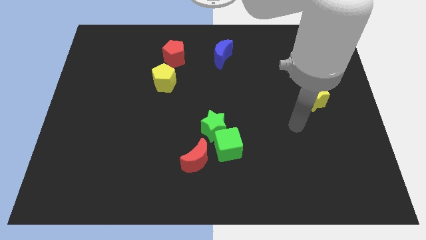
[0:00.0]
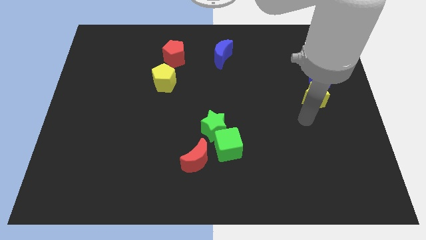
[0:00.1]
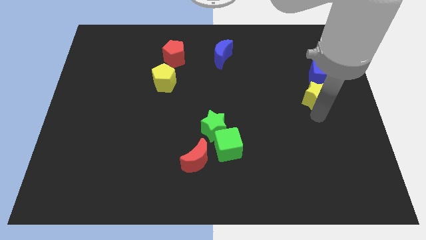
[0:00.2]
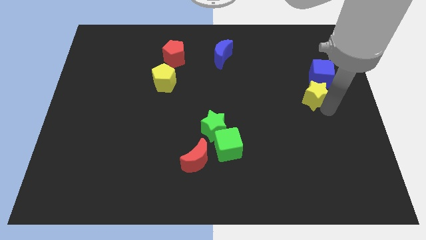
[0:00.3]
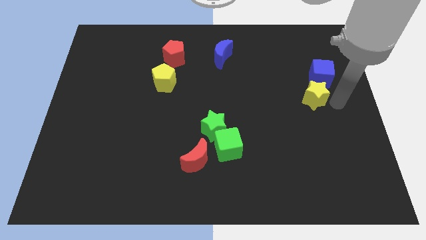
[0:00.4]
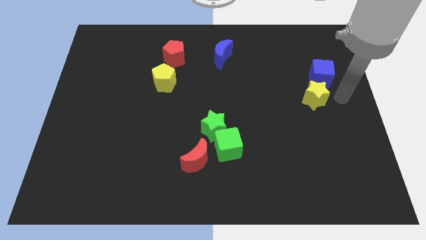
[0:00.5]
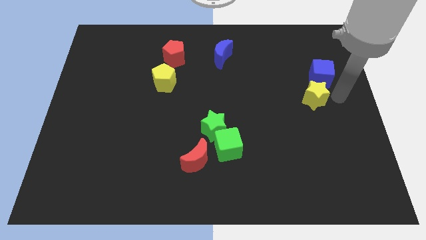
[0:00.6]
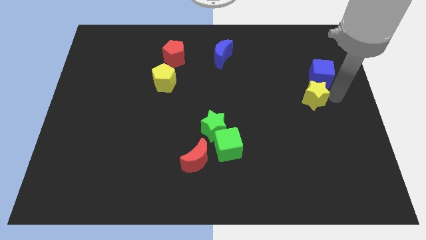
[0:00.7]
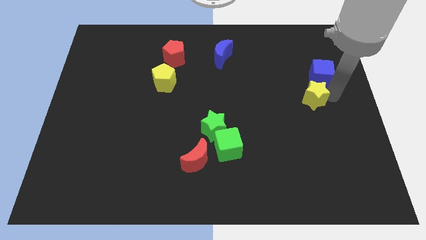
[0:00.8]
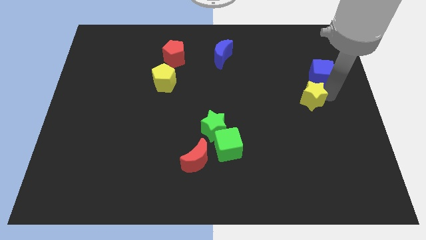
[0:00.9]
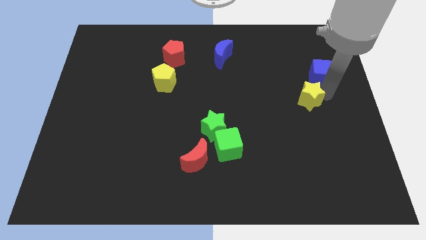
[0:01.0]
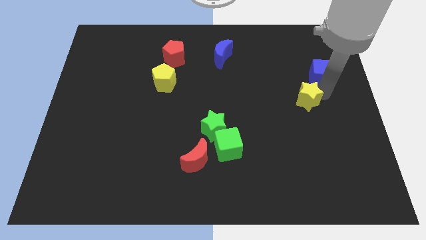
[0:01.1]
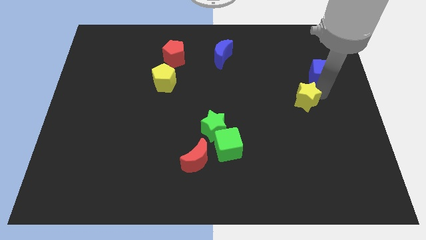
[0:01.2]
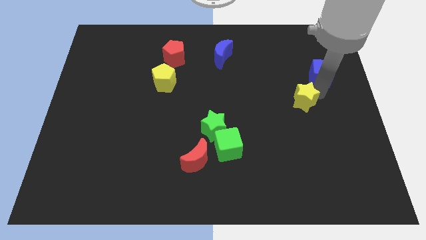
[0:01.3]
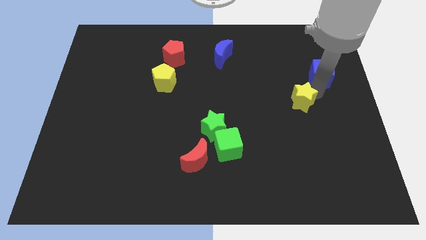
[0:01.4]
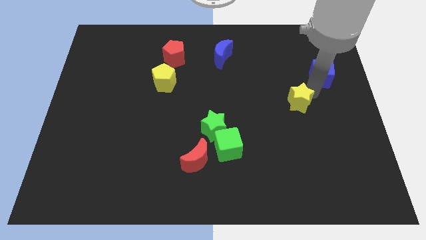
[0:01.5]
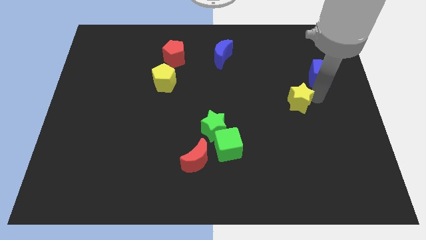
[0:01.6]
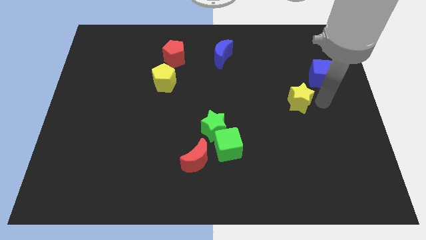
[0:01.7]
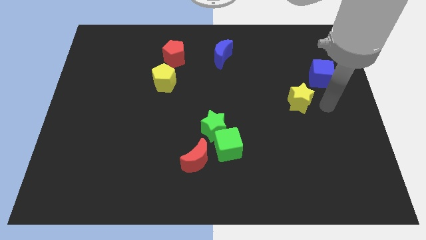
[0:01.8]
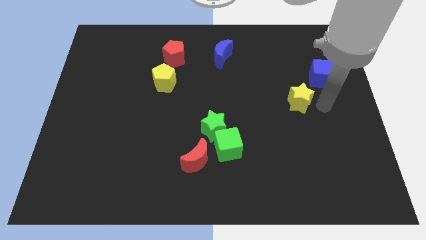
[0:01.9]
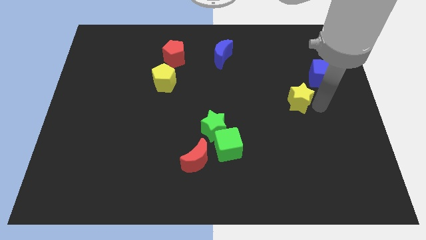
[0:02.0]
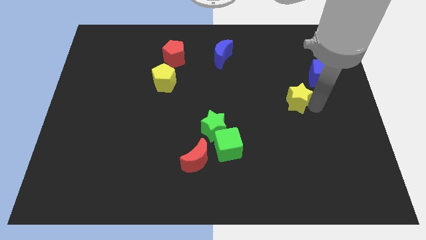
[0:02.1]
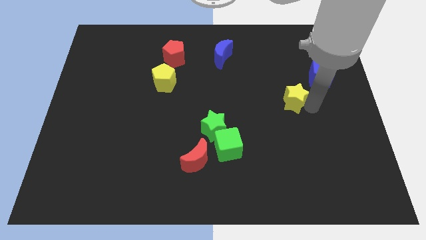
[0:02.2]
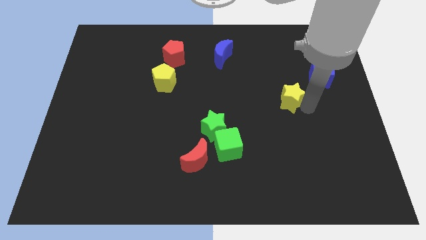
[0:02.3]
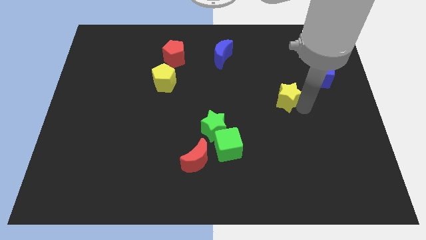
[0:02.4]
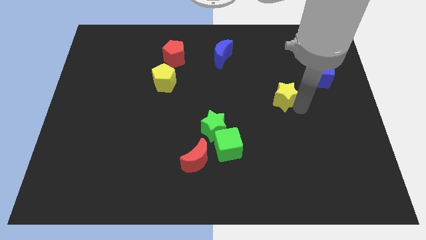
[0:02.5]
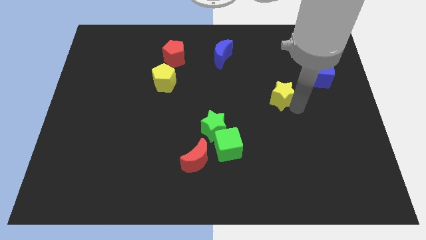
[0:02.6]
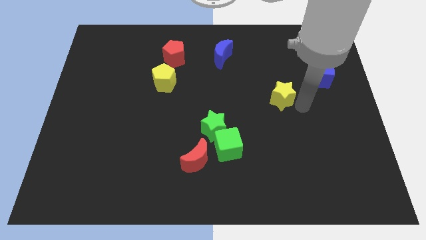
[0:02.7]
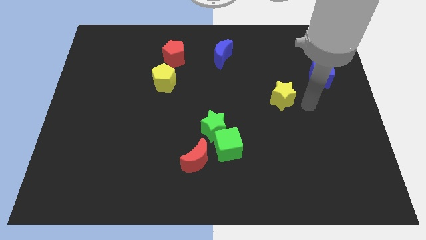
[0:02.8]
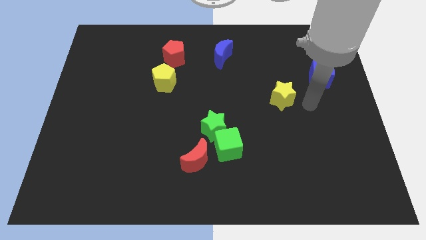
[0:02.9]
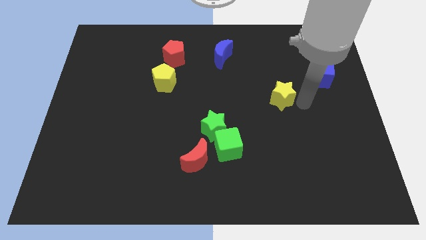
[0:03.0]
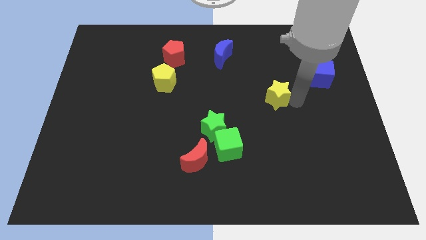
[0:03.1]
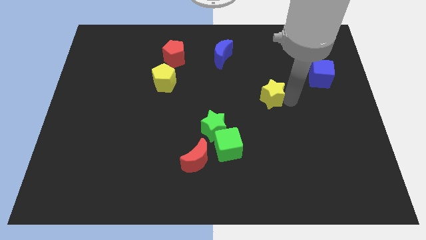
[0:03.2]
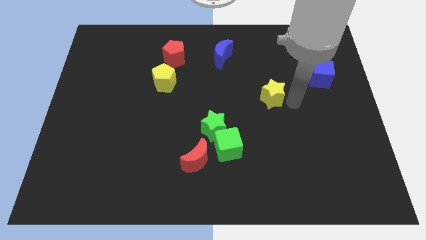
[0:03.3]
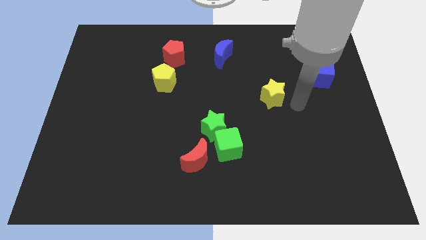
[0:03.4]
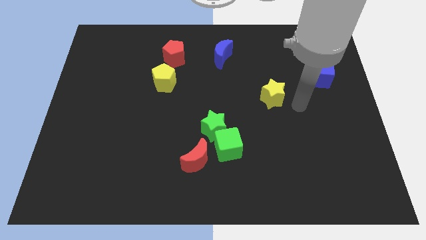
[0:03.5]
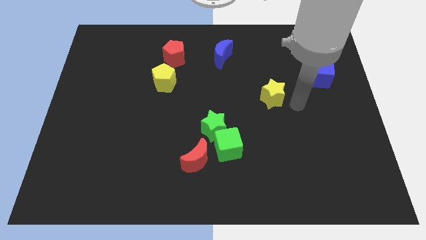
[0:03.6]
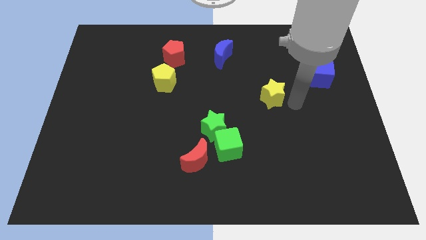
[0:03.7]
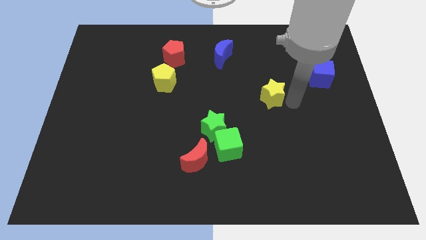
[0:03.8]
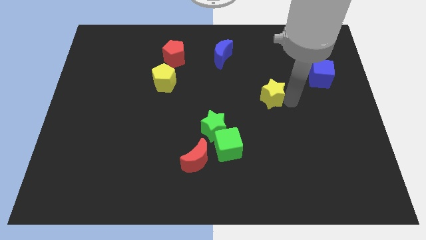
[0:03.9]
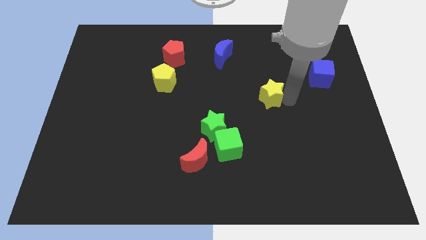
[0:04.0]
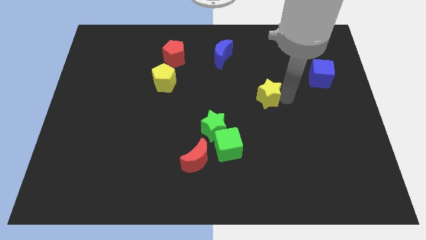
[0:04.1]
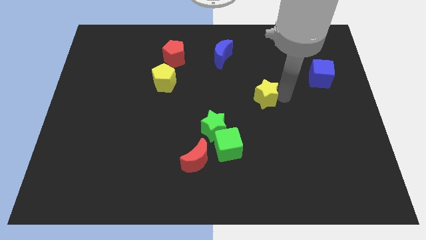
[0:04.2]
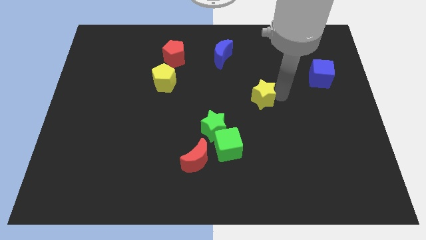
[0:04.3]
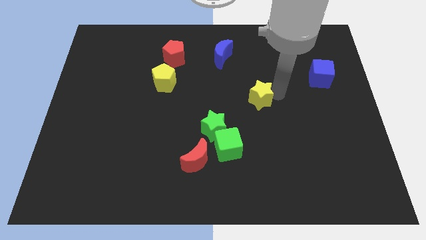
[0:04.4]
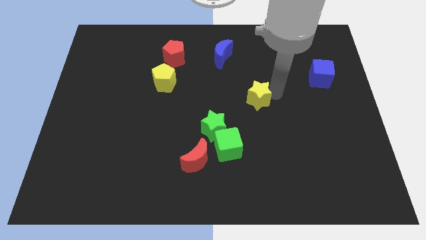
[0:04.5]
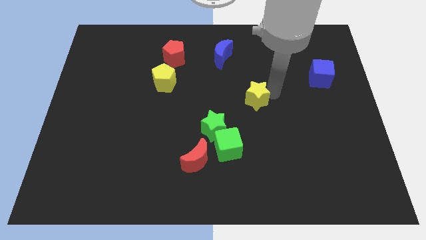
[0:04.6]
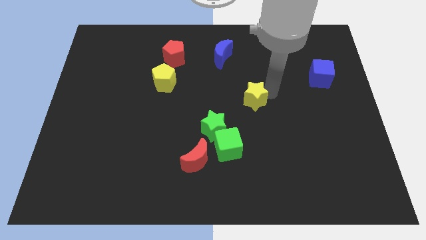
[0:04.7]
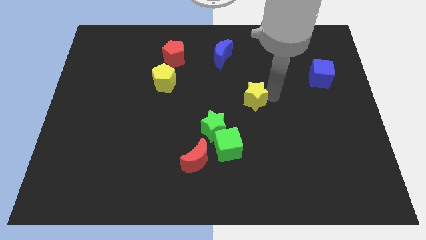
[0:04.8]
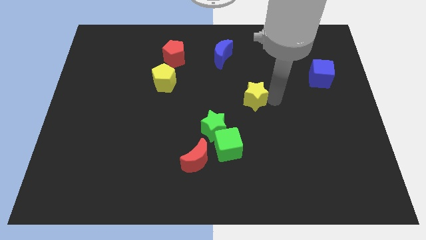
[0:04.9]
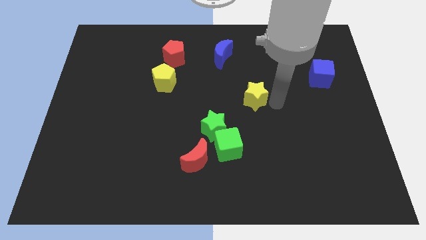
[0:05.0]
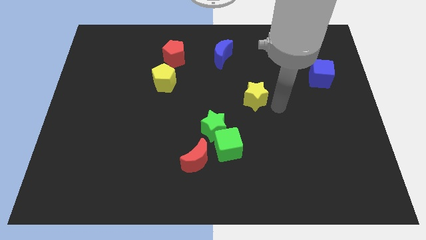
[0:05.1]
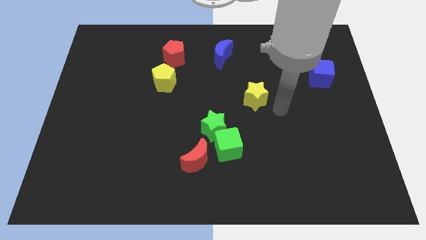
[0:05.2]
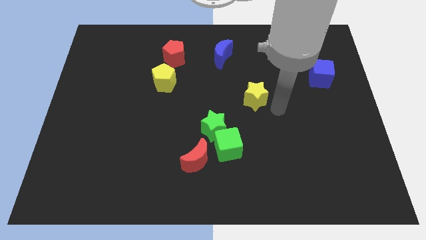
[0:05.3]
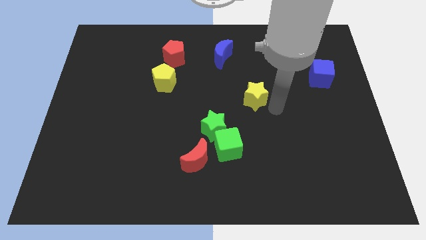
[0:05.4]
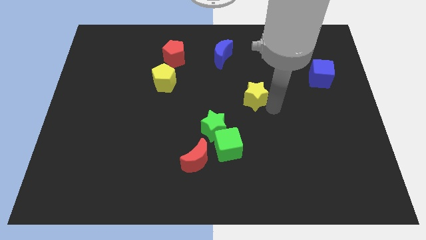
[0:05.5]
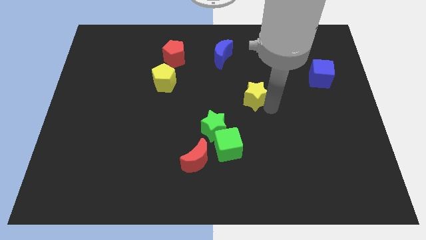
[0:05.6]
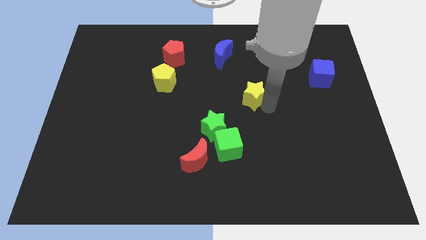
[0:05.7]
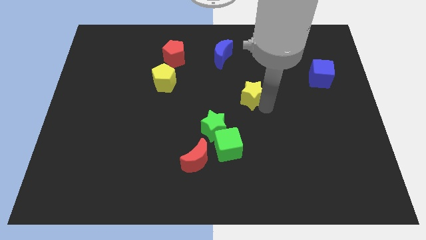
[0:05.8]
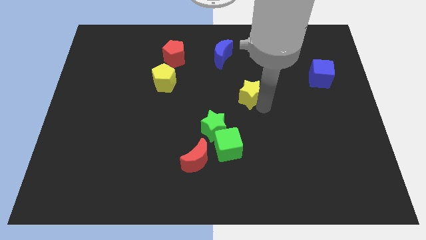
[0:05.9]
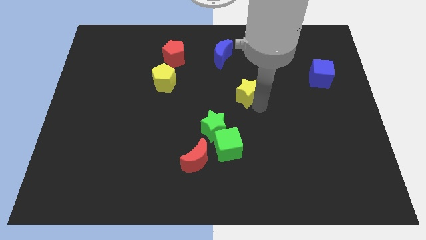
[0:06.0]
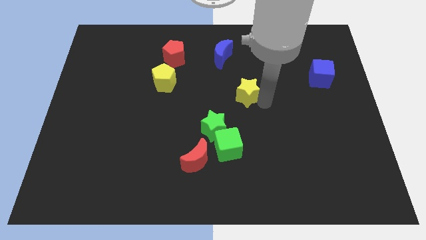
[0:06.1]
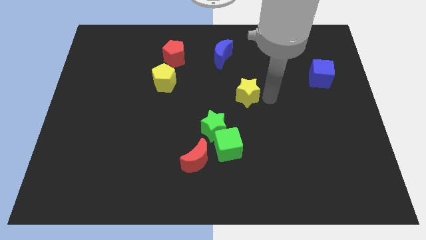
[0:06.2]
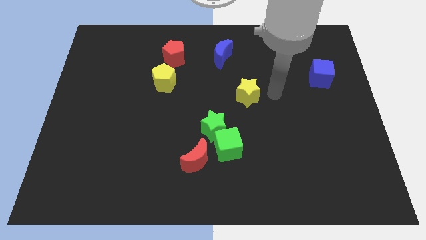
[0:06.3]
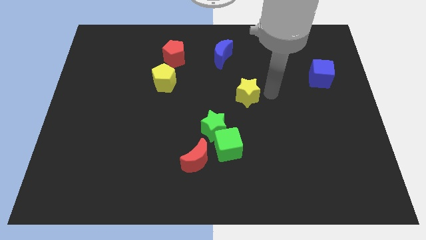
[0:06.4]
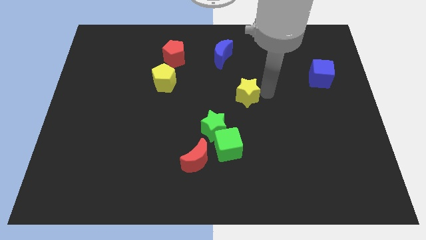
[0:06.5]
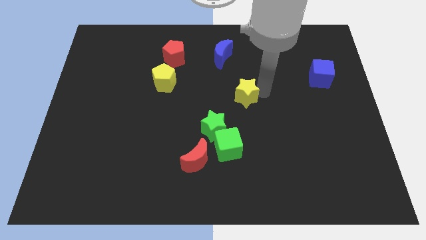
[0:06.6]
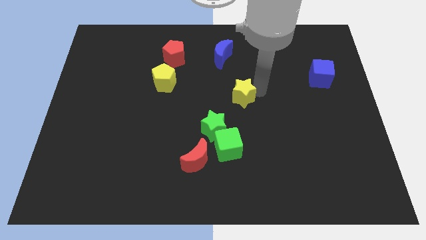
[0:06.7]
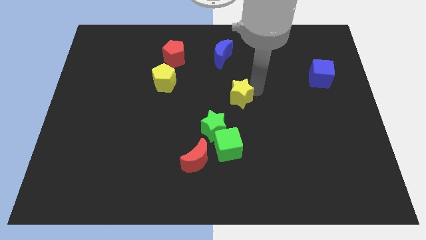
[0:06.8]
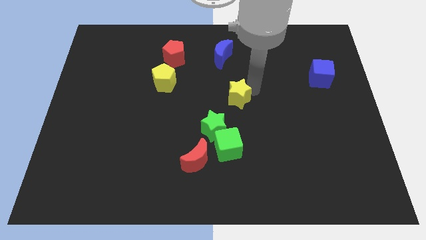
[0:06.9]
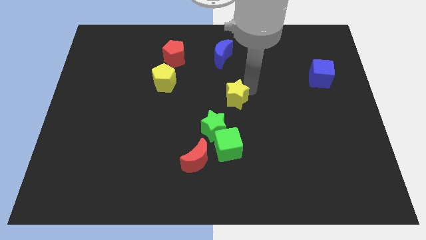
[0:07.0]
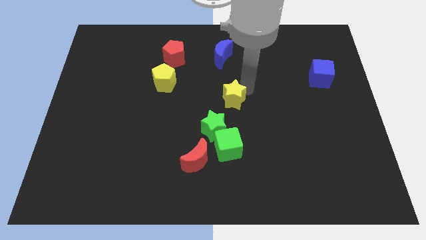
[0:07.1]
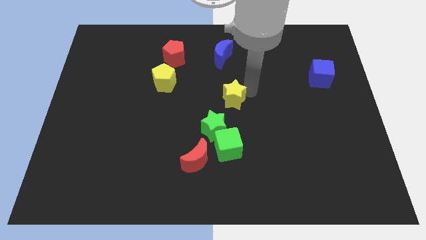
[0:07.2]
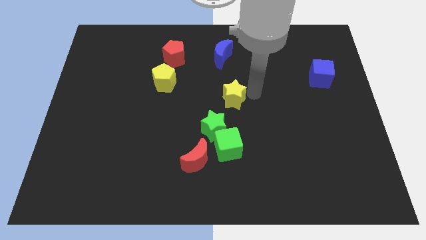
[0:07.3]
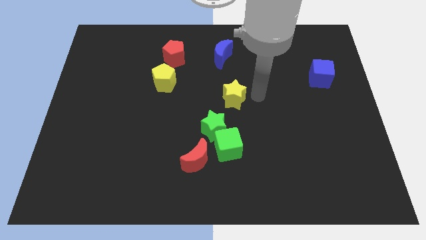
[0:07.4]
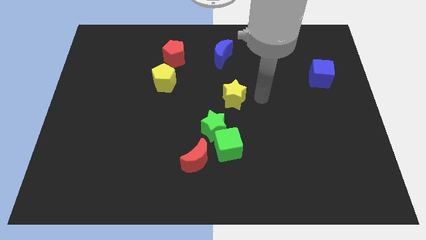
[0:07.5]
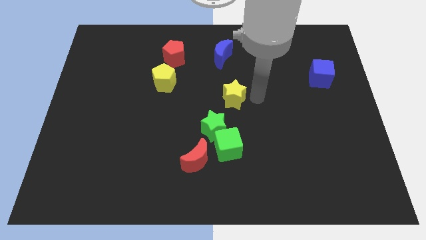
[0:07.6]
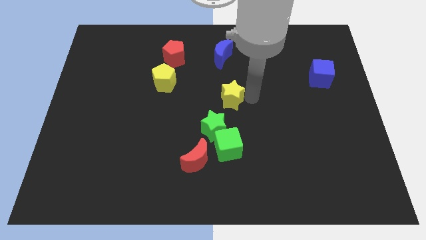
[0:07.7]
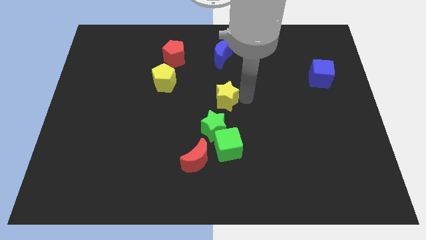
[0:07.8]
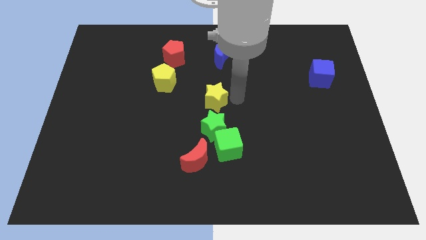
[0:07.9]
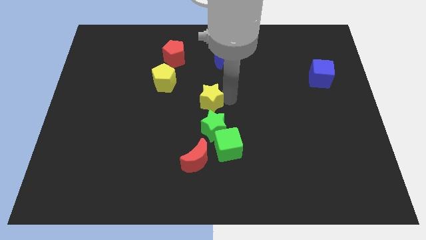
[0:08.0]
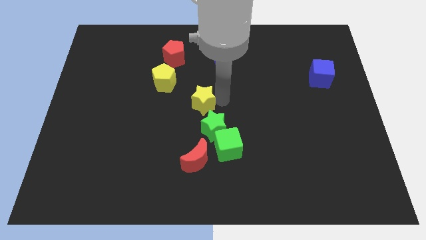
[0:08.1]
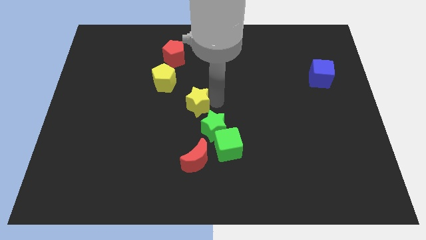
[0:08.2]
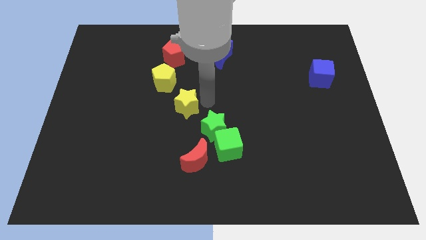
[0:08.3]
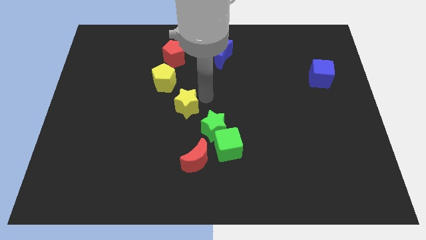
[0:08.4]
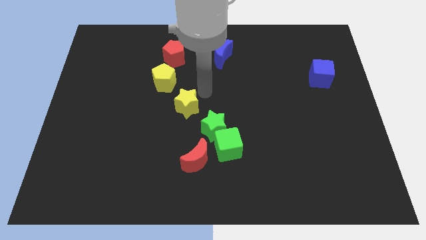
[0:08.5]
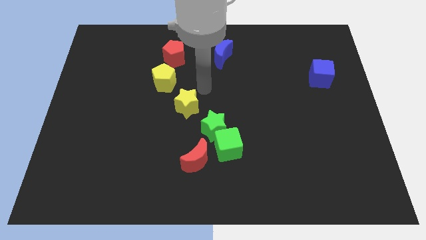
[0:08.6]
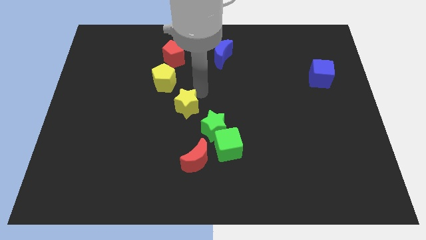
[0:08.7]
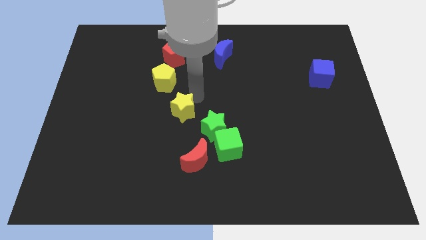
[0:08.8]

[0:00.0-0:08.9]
put the yellow star to the left of the green star
